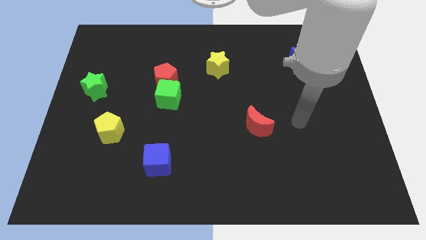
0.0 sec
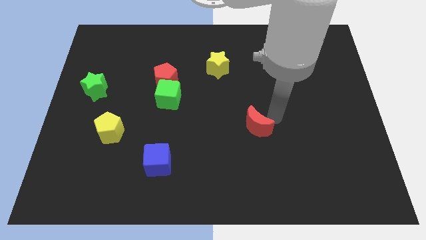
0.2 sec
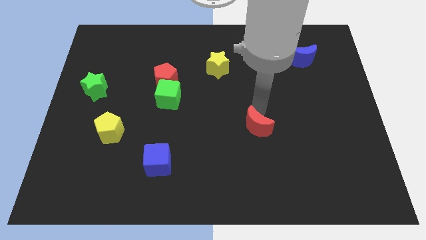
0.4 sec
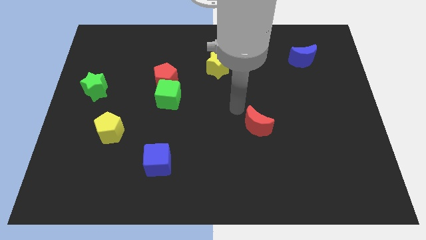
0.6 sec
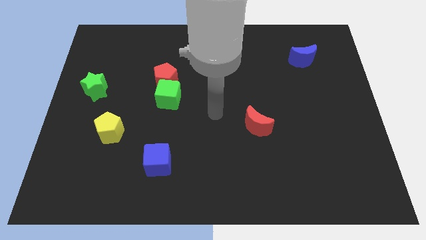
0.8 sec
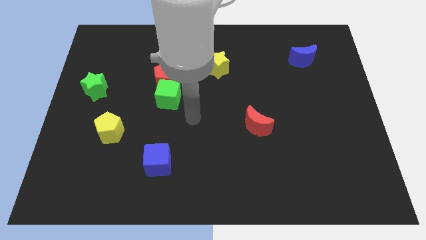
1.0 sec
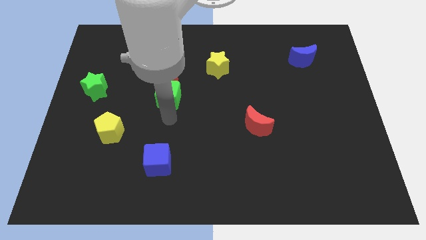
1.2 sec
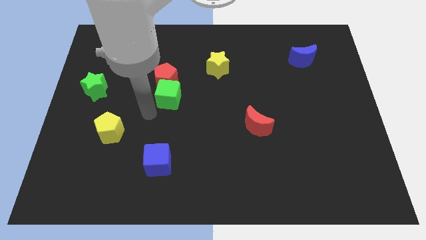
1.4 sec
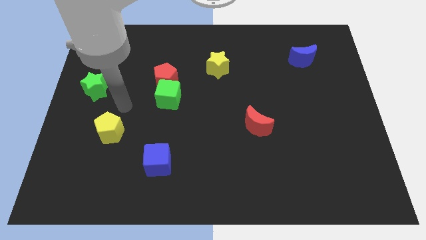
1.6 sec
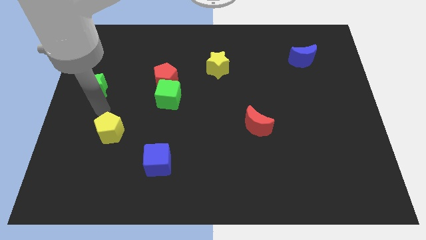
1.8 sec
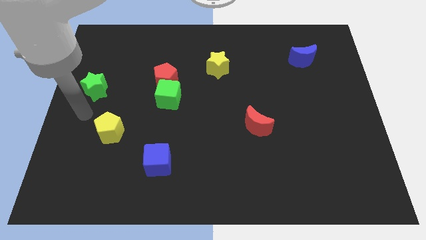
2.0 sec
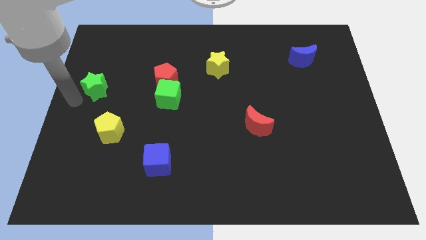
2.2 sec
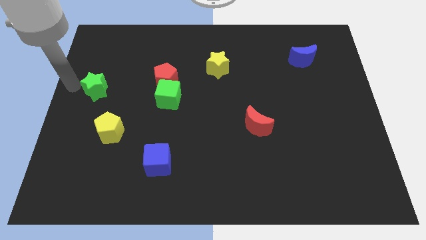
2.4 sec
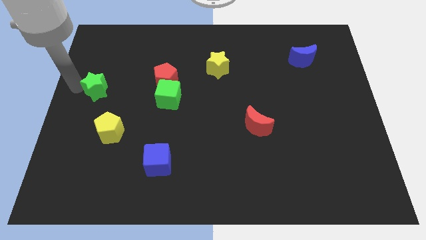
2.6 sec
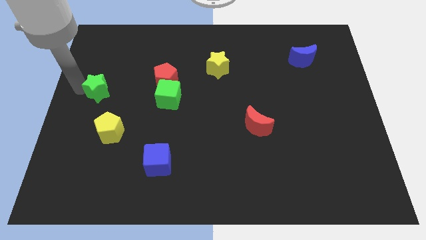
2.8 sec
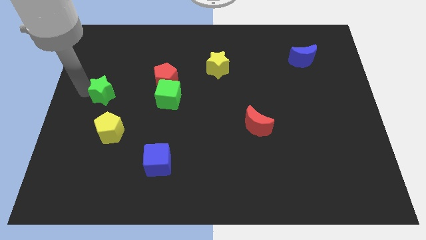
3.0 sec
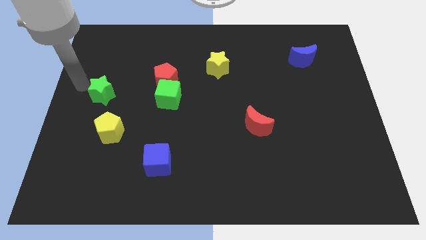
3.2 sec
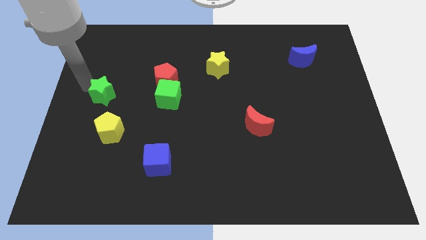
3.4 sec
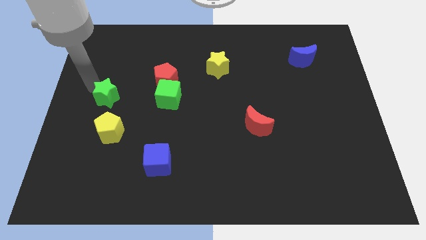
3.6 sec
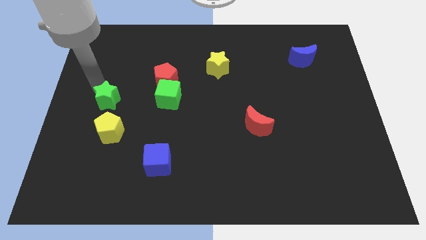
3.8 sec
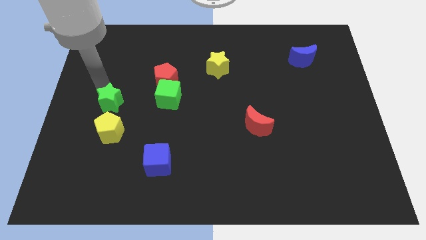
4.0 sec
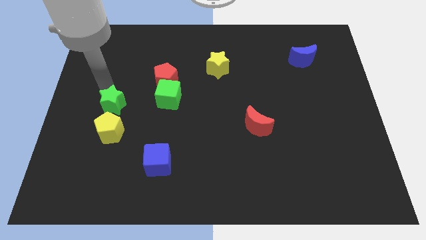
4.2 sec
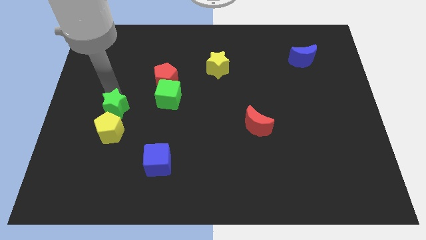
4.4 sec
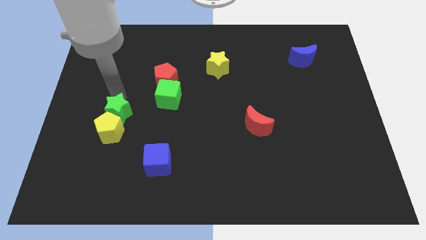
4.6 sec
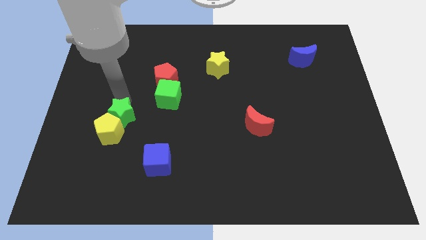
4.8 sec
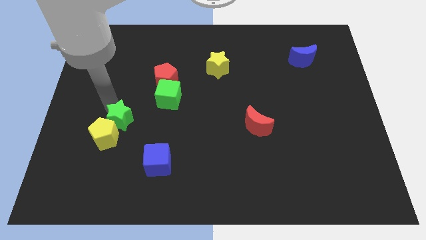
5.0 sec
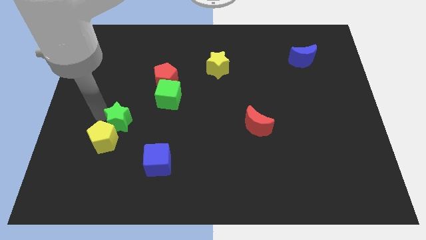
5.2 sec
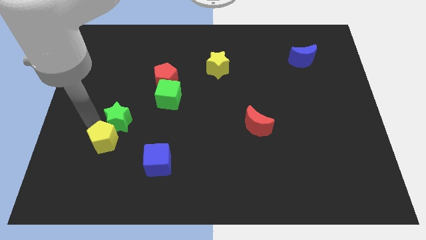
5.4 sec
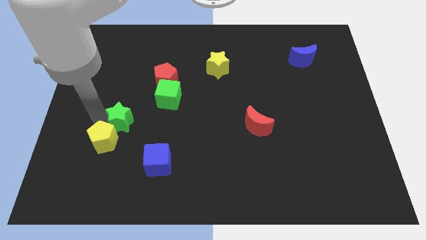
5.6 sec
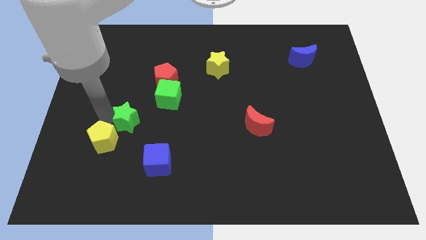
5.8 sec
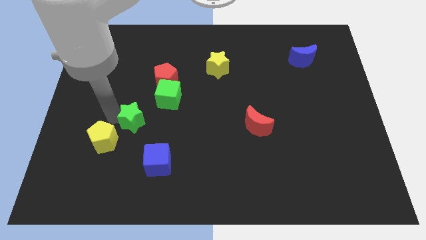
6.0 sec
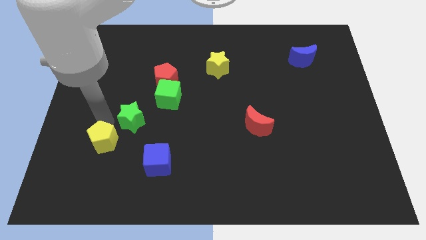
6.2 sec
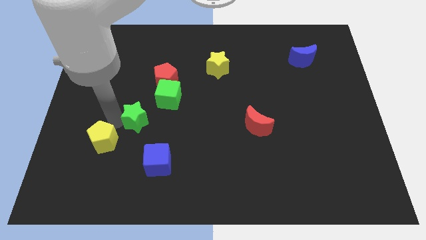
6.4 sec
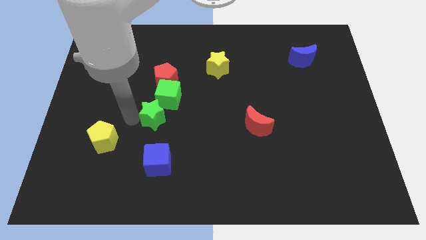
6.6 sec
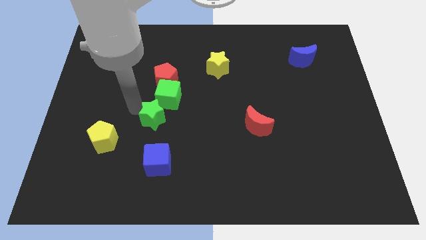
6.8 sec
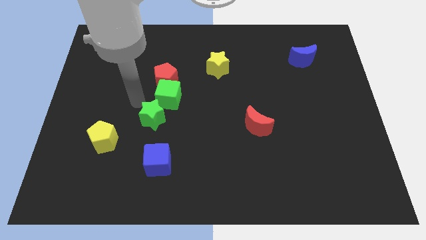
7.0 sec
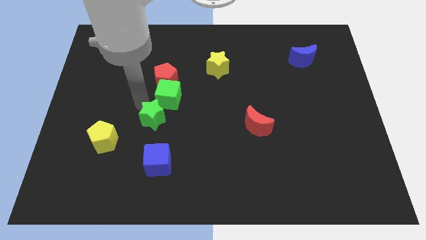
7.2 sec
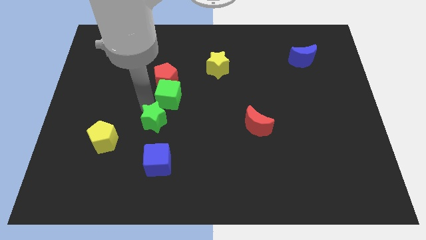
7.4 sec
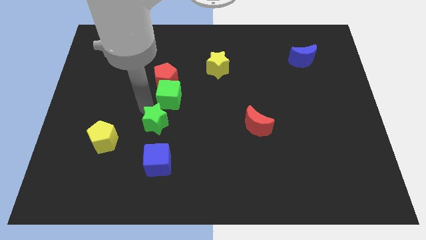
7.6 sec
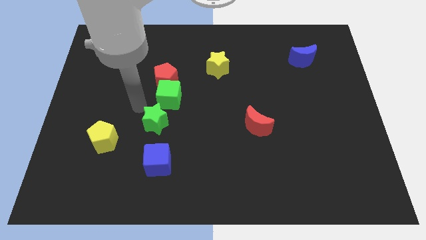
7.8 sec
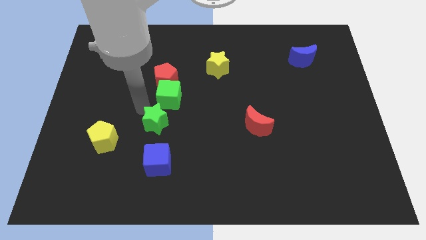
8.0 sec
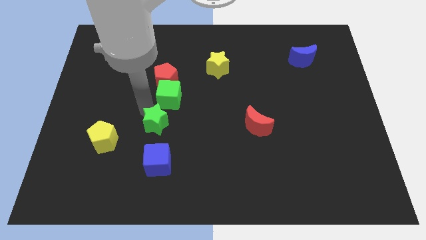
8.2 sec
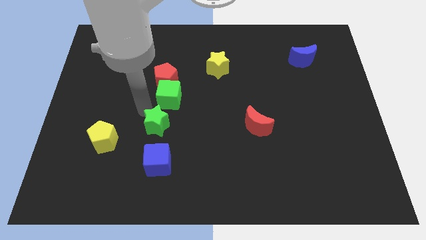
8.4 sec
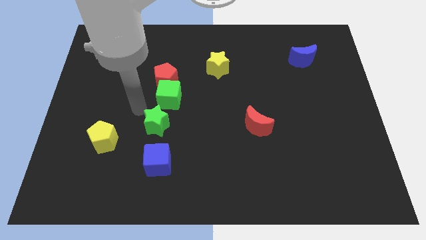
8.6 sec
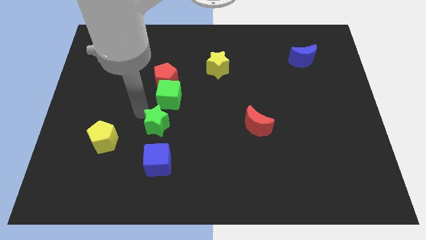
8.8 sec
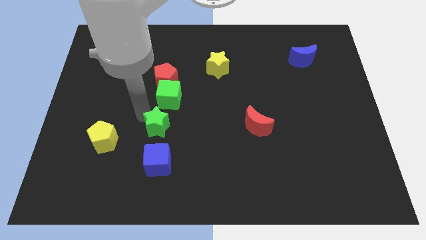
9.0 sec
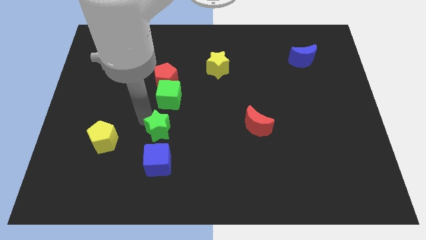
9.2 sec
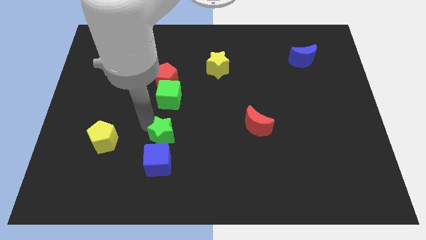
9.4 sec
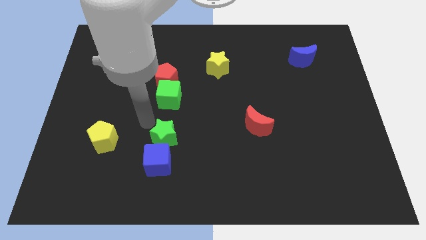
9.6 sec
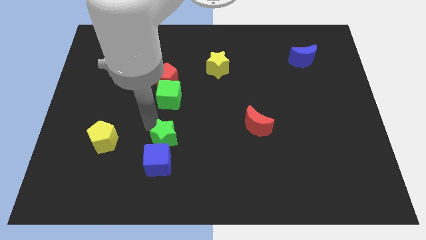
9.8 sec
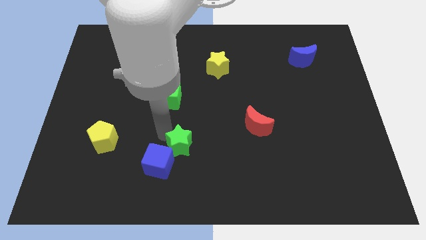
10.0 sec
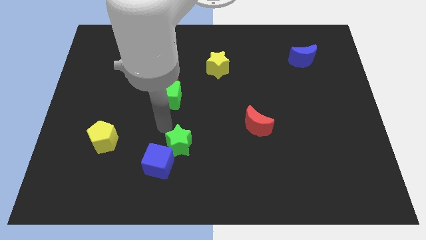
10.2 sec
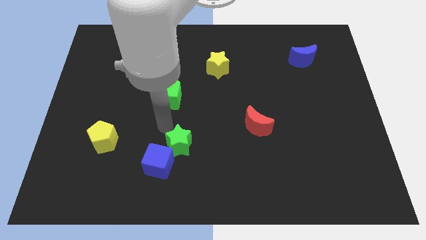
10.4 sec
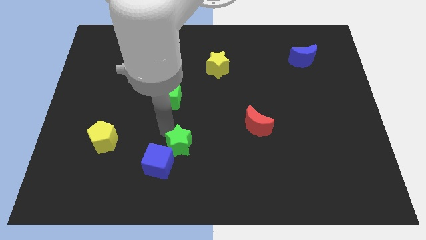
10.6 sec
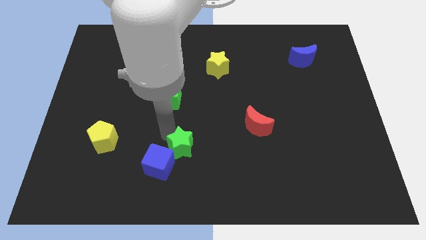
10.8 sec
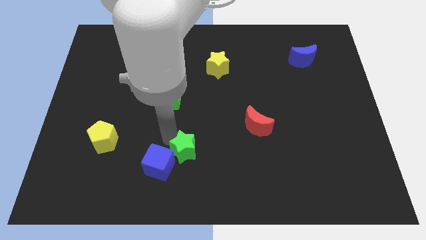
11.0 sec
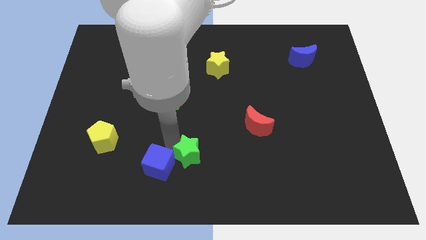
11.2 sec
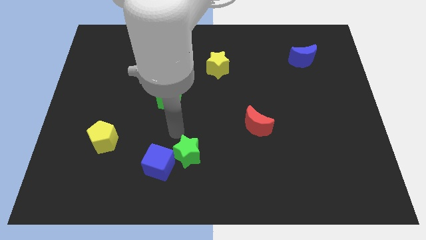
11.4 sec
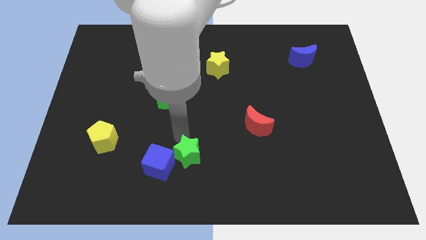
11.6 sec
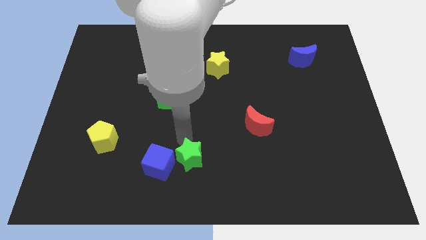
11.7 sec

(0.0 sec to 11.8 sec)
slide the green star to the bottom

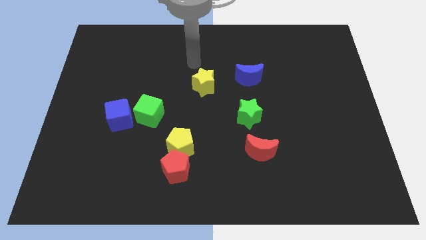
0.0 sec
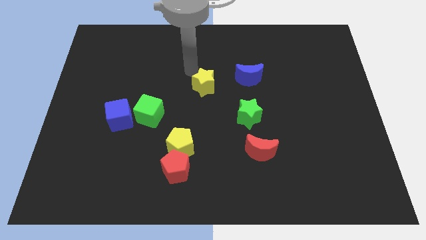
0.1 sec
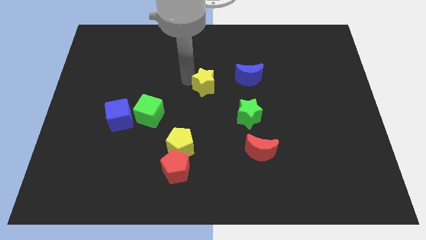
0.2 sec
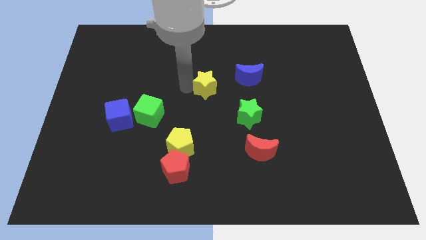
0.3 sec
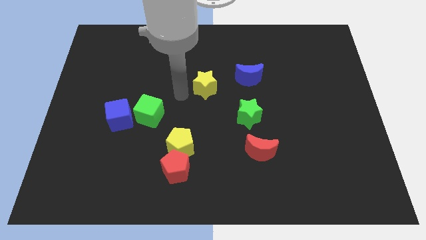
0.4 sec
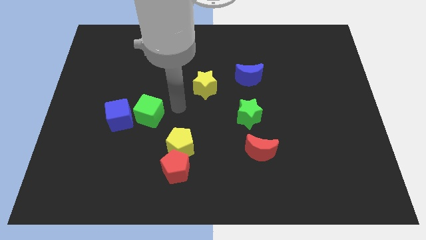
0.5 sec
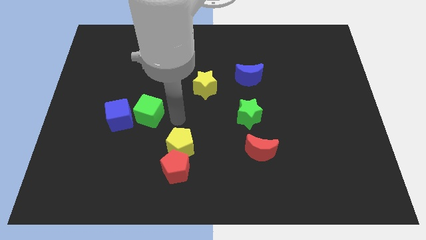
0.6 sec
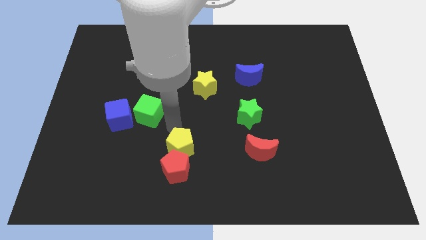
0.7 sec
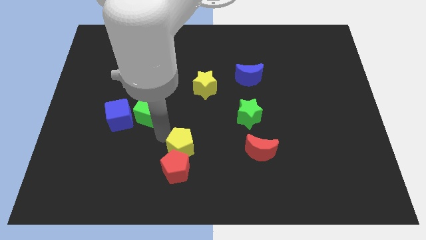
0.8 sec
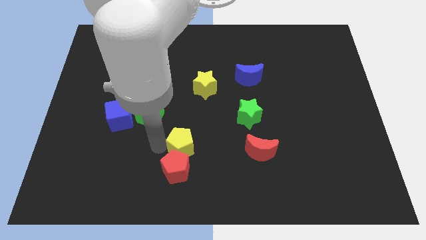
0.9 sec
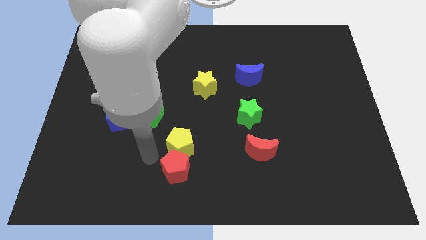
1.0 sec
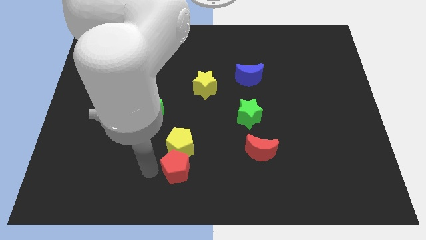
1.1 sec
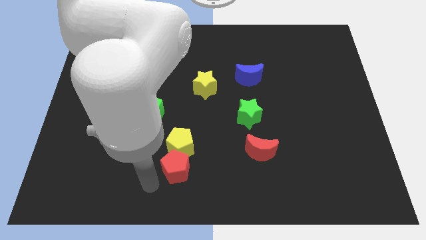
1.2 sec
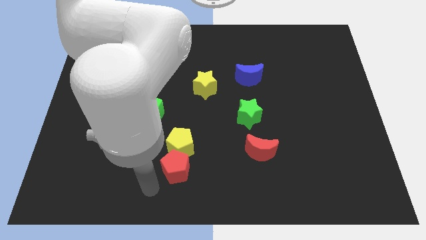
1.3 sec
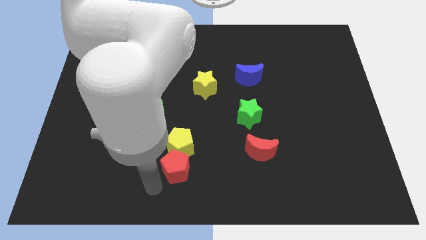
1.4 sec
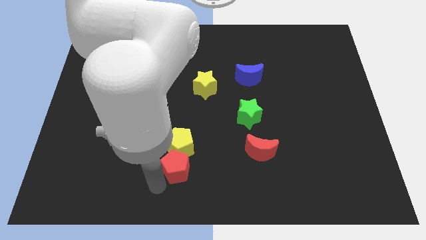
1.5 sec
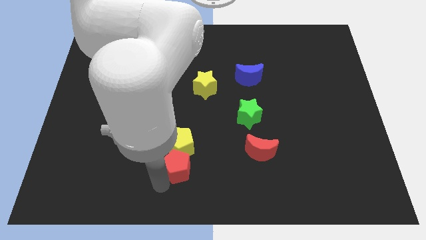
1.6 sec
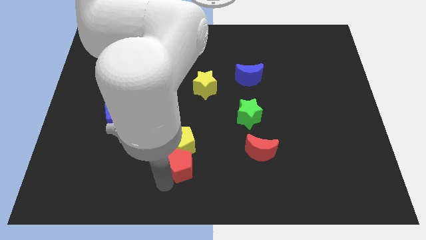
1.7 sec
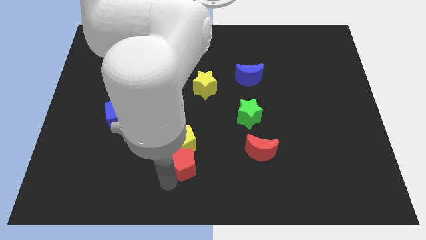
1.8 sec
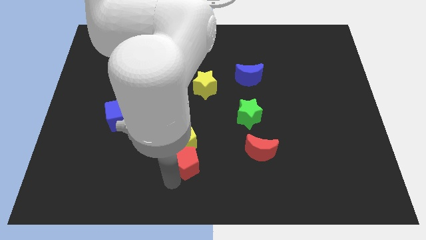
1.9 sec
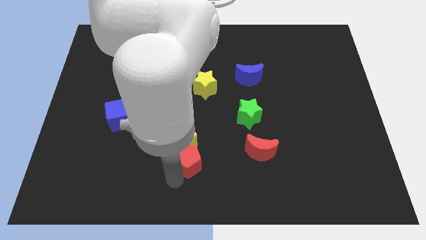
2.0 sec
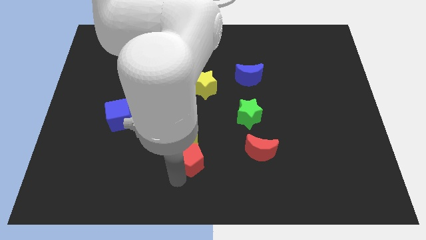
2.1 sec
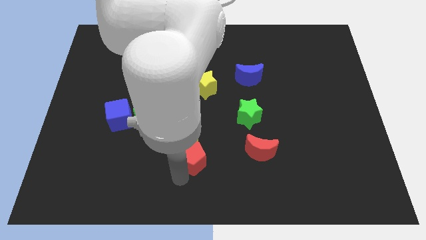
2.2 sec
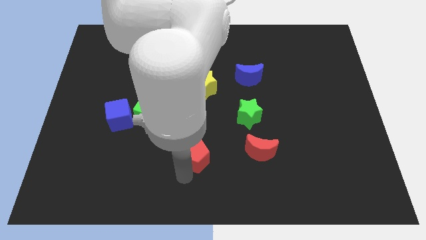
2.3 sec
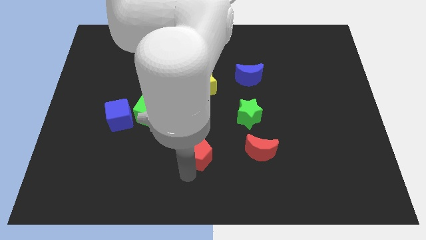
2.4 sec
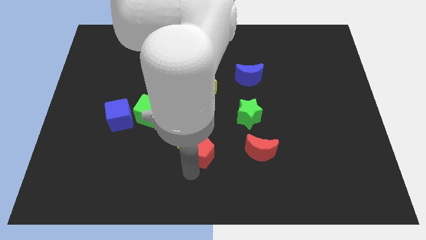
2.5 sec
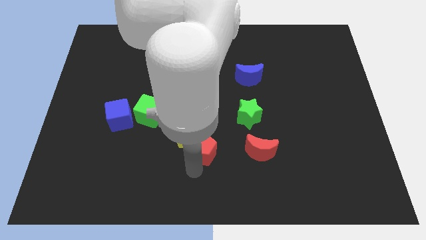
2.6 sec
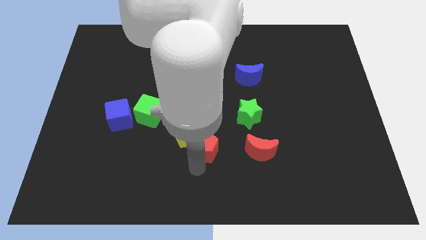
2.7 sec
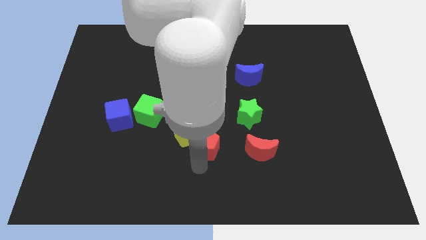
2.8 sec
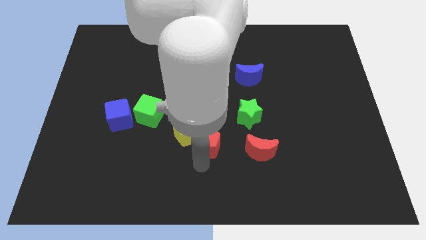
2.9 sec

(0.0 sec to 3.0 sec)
move the red pentagon to the middle
